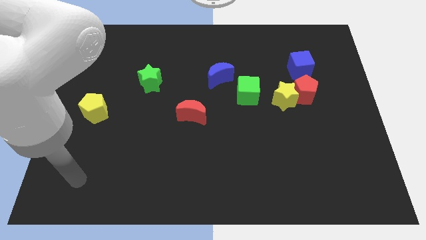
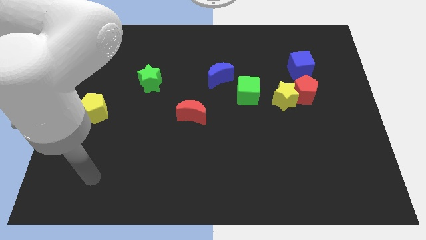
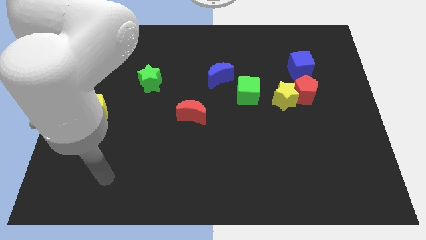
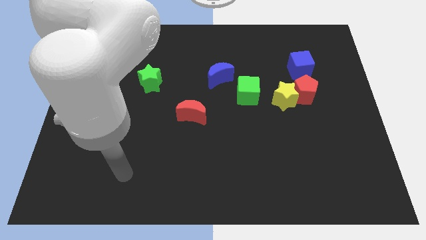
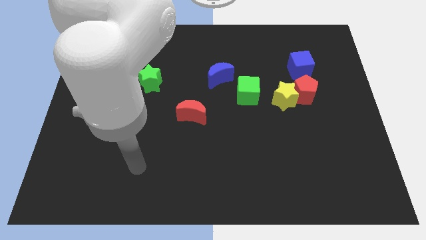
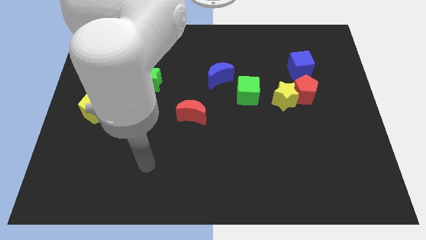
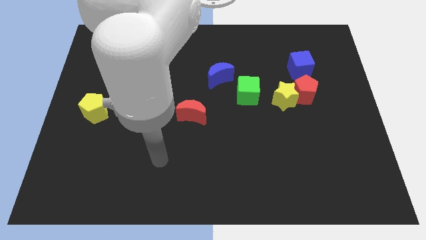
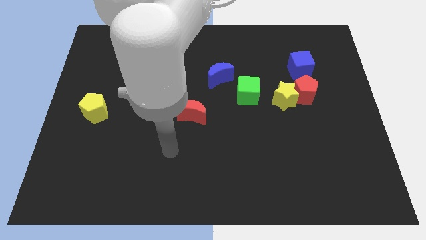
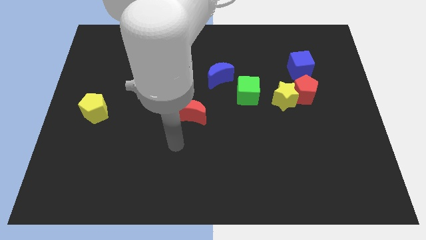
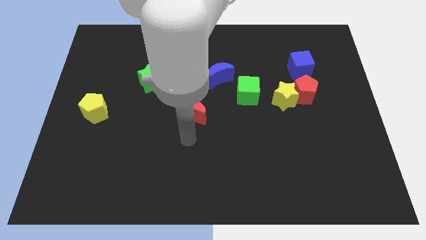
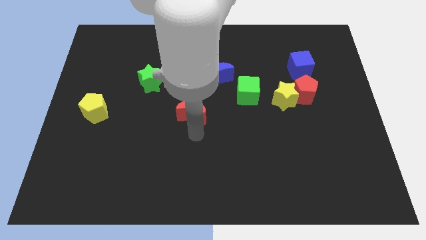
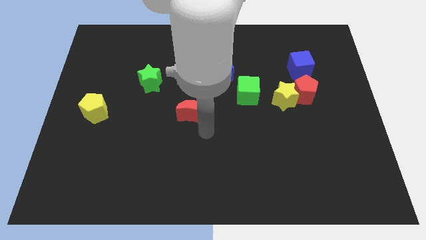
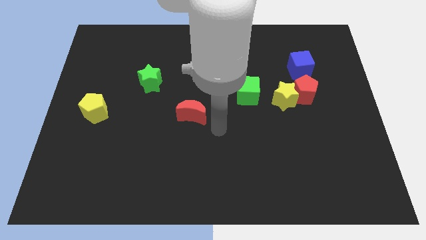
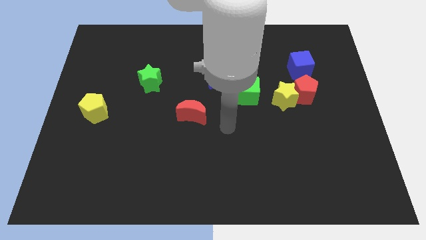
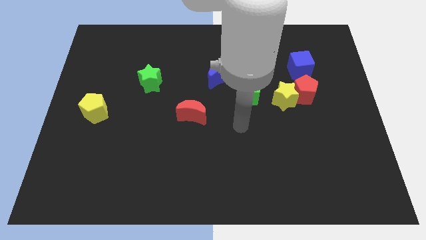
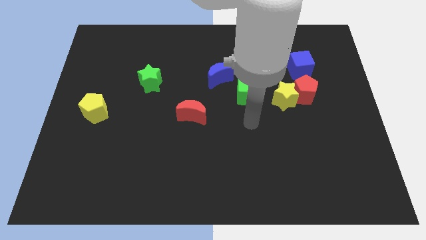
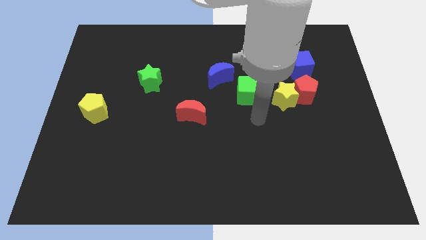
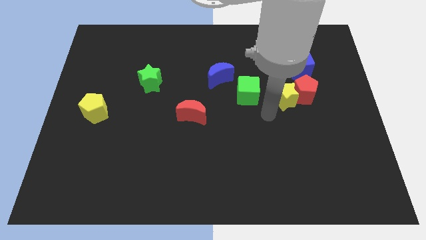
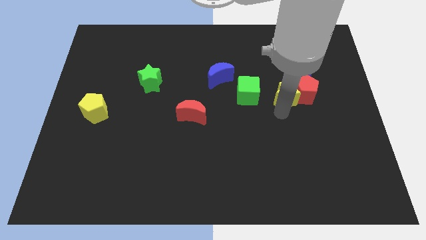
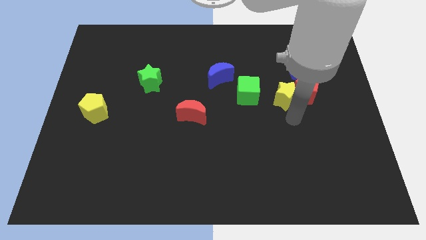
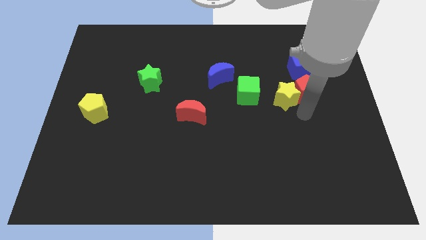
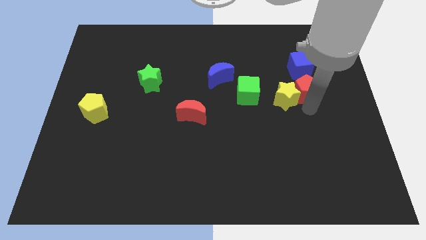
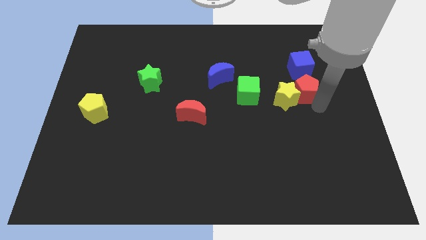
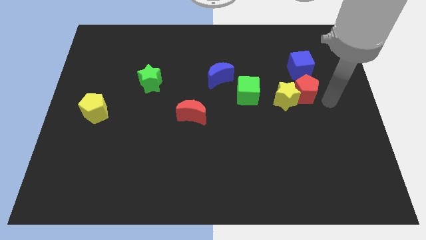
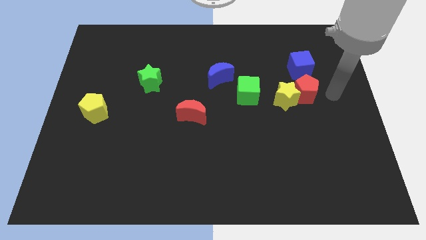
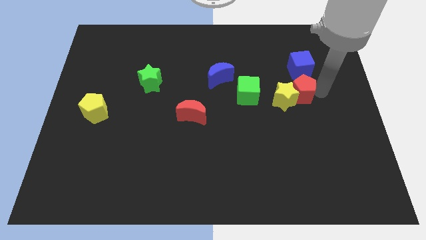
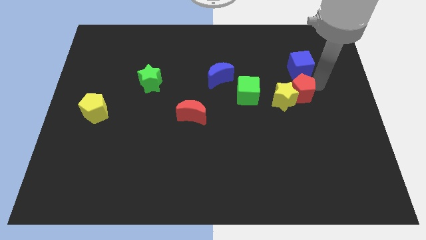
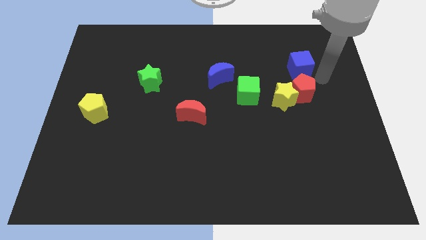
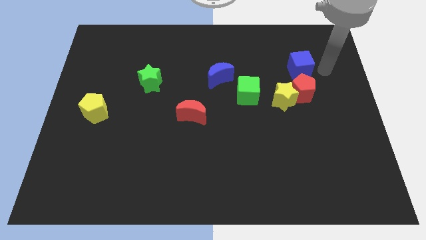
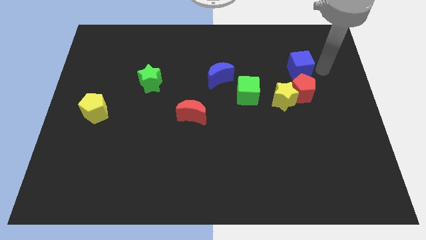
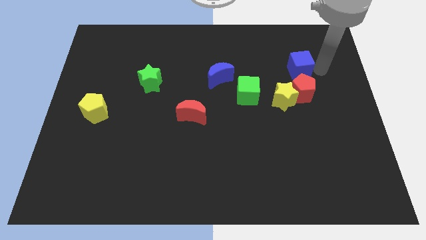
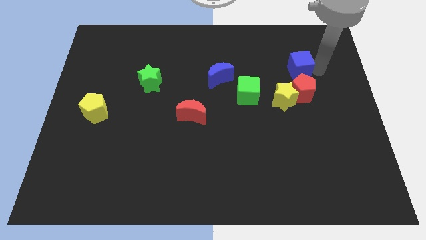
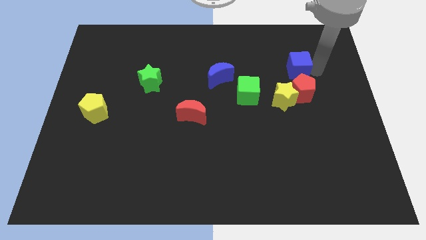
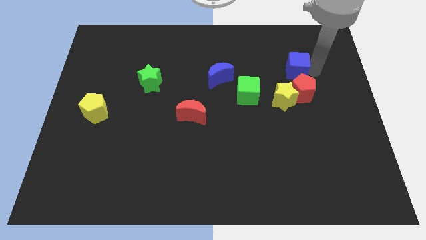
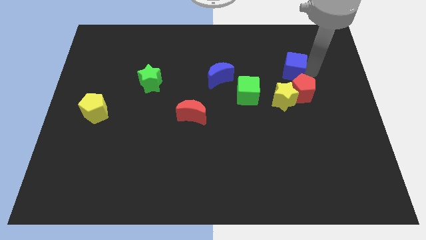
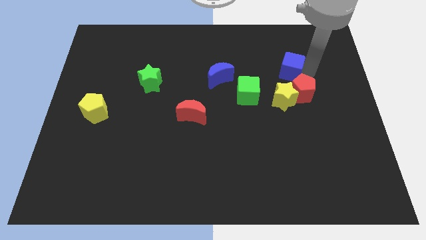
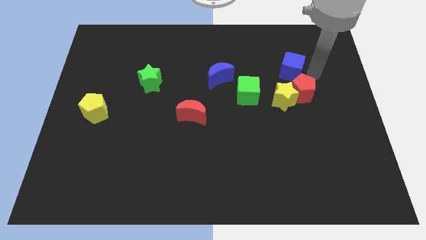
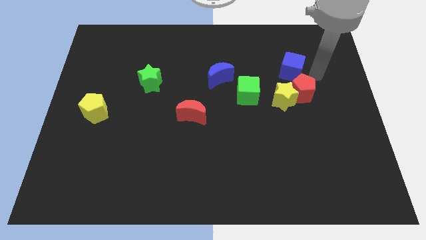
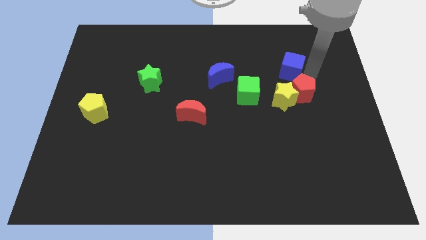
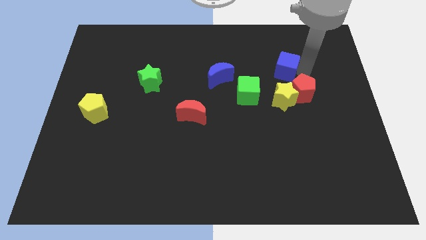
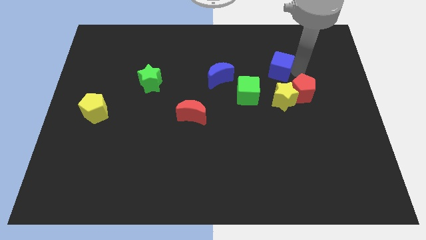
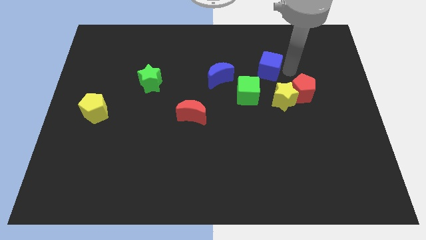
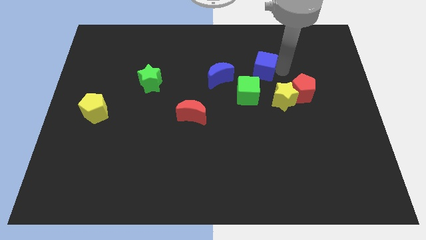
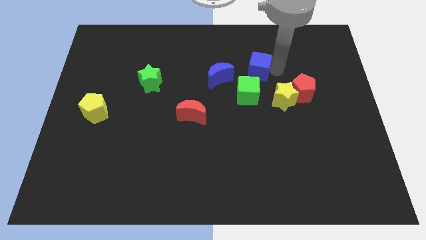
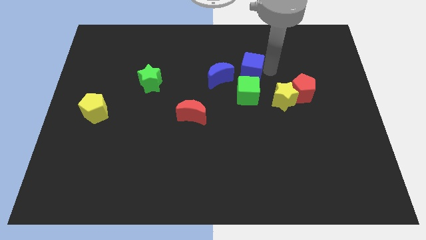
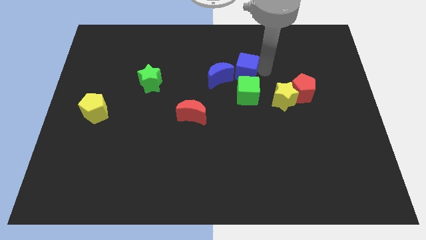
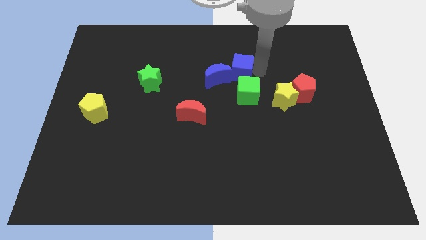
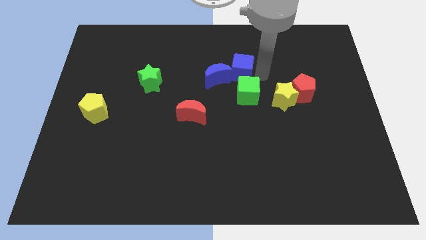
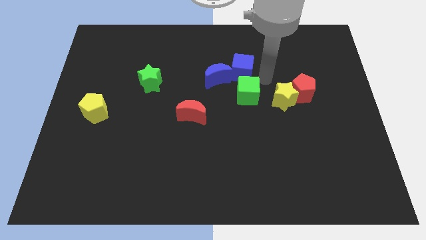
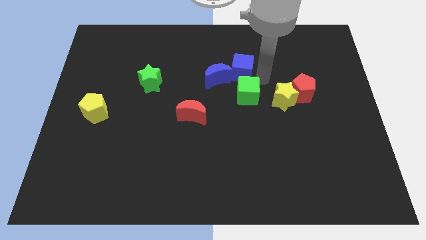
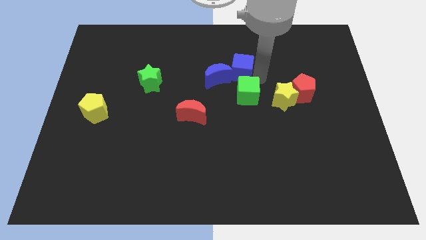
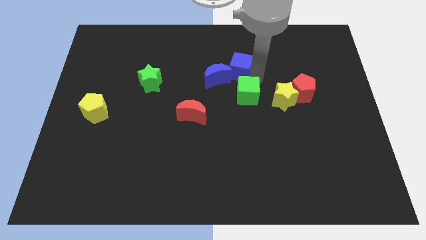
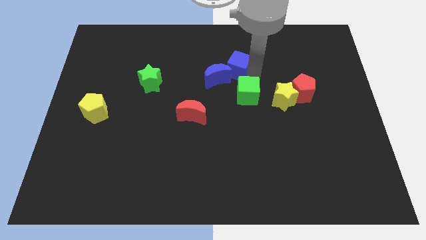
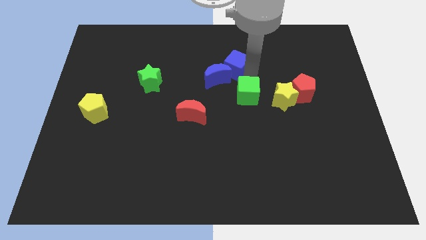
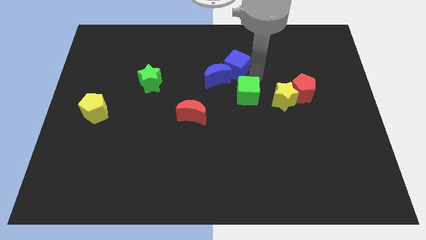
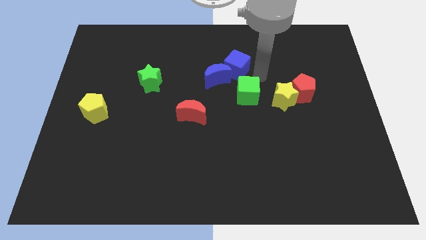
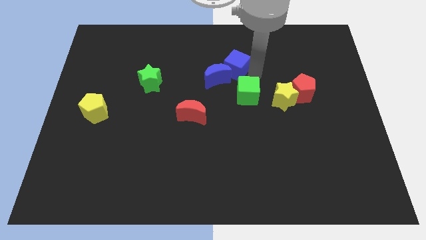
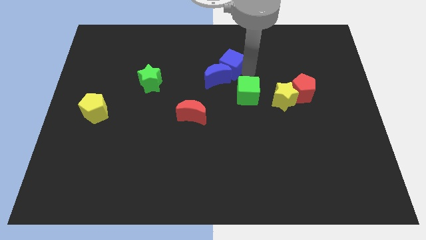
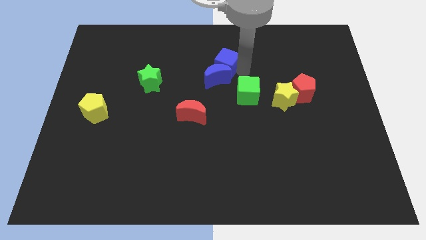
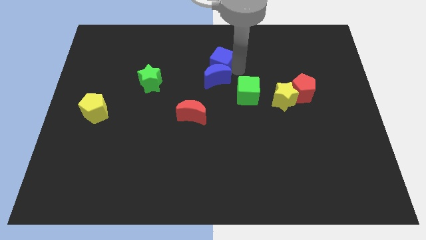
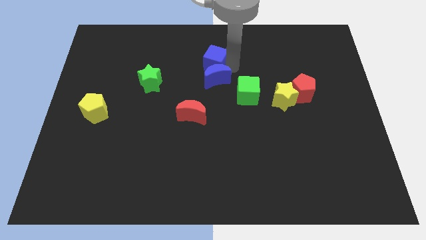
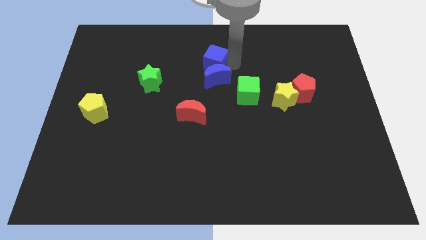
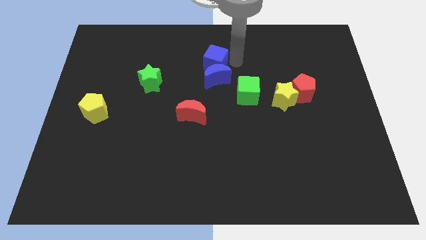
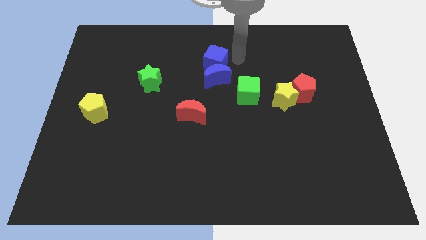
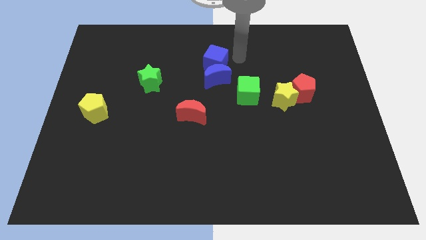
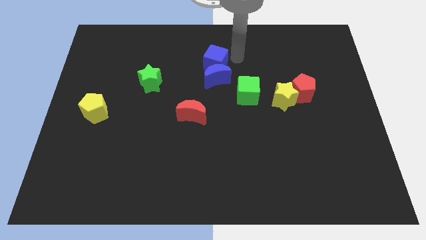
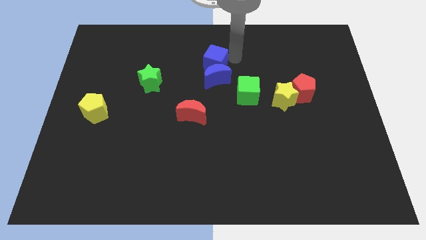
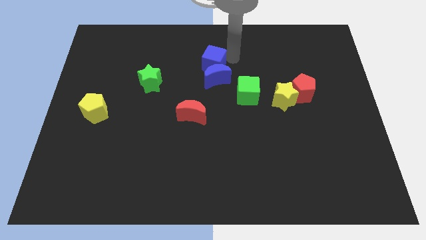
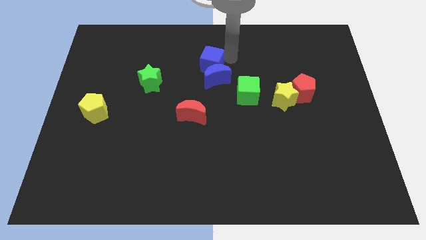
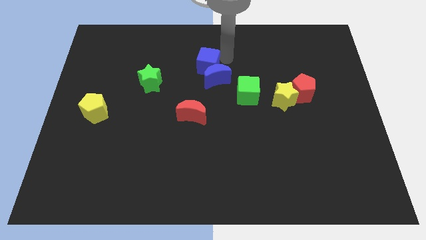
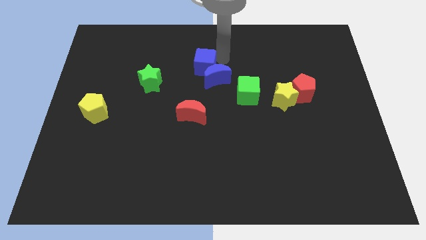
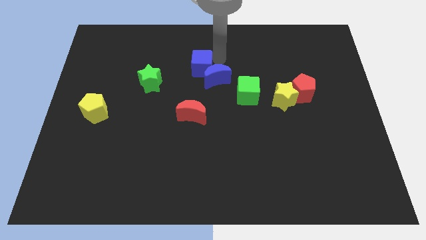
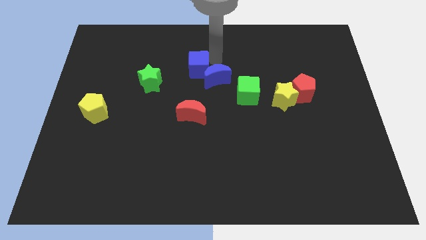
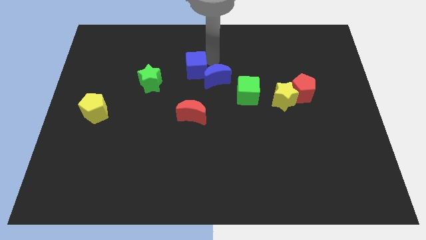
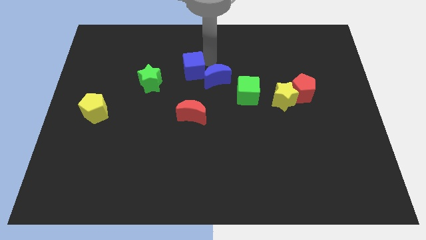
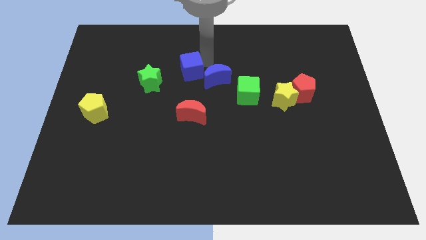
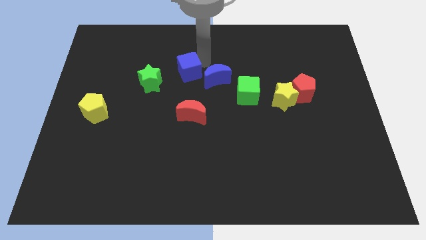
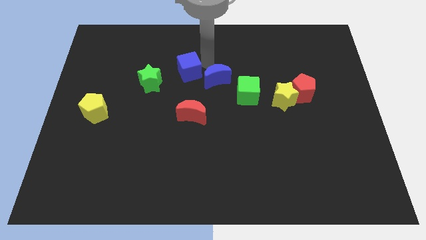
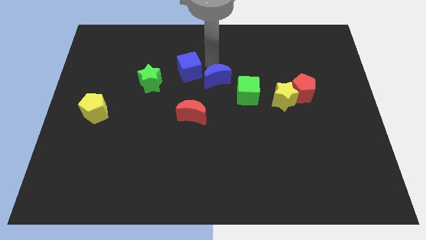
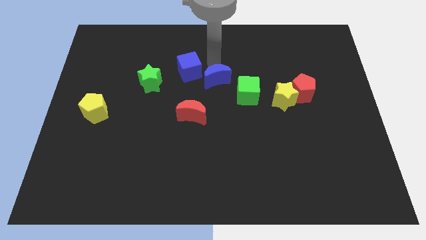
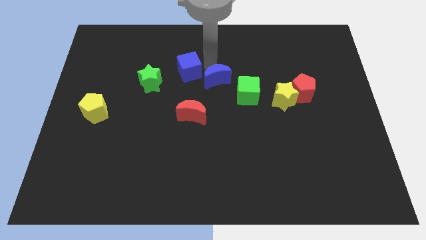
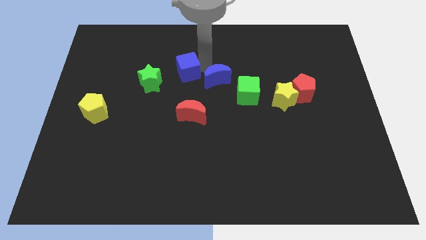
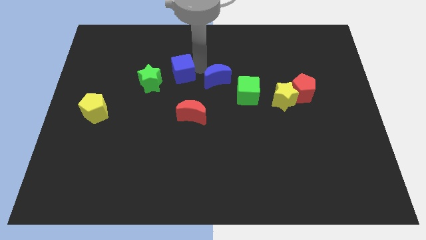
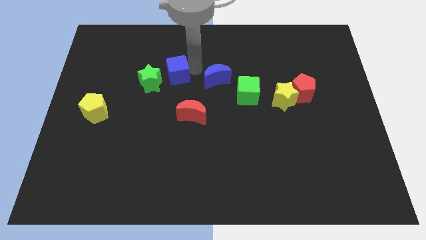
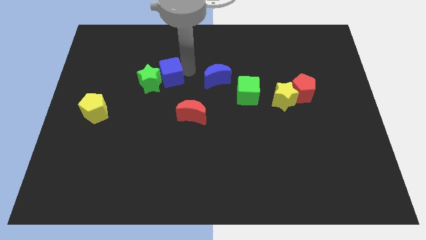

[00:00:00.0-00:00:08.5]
move the blue cube towards the green star
